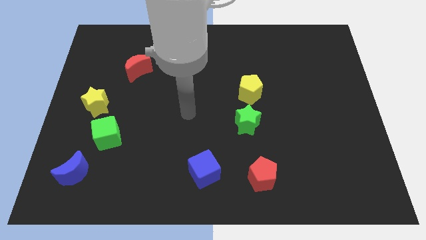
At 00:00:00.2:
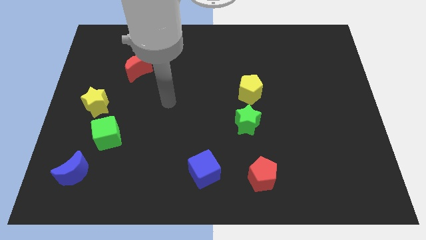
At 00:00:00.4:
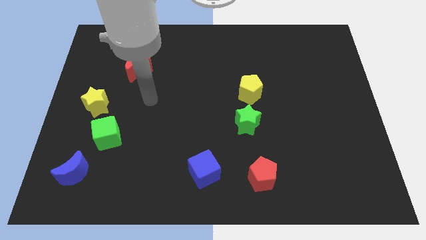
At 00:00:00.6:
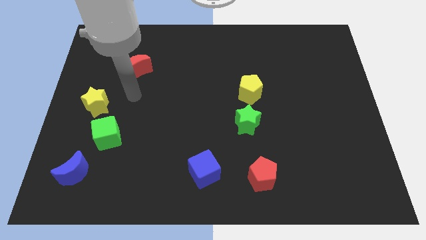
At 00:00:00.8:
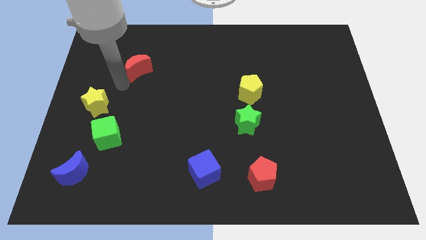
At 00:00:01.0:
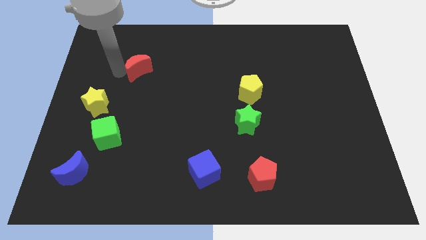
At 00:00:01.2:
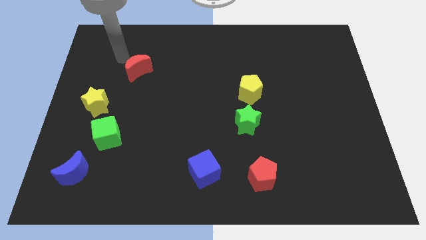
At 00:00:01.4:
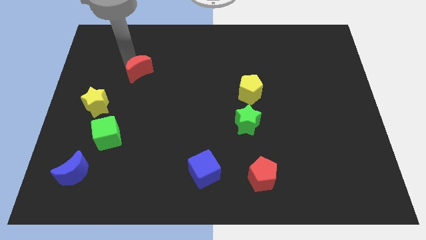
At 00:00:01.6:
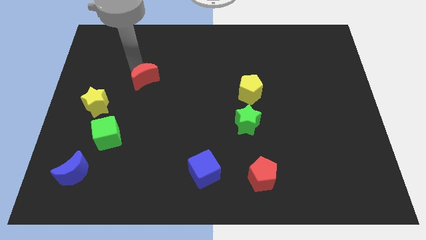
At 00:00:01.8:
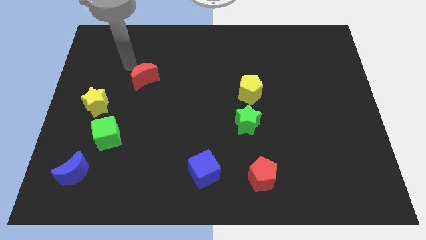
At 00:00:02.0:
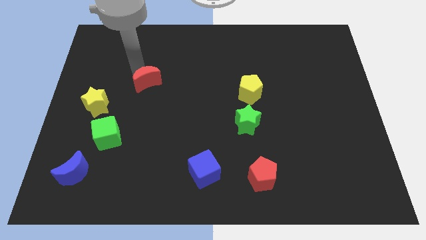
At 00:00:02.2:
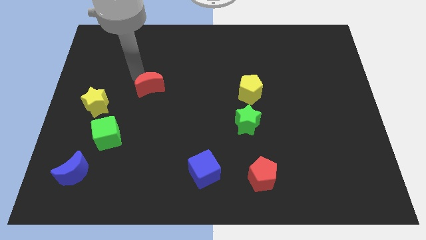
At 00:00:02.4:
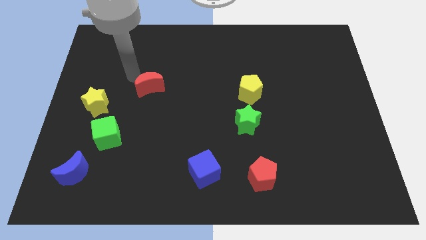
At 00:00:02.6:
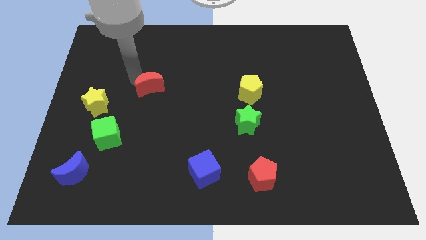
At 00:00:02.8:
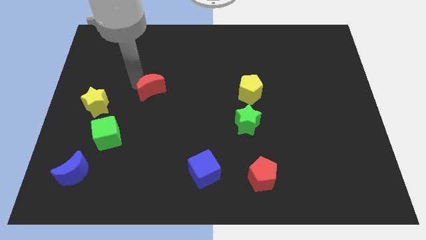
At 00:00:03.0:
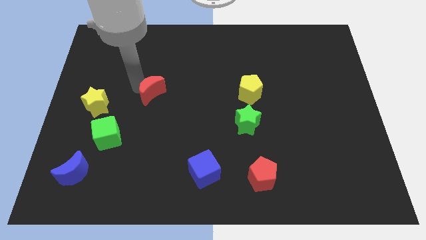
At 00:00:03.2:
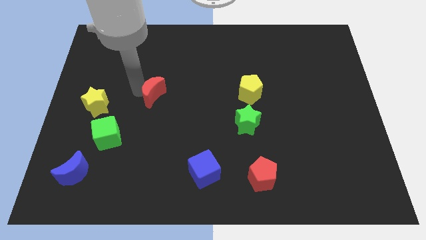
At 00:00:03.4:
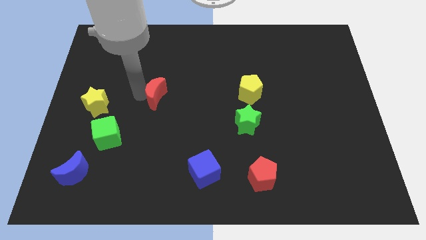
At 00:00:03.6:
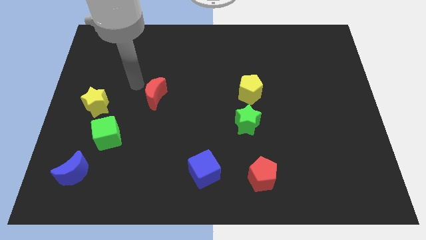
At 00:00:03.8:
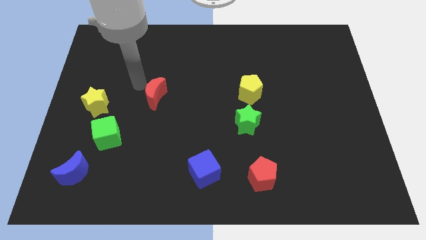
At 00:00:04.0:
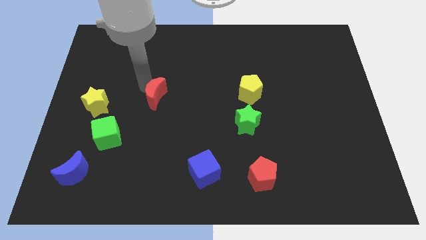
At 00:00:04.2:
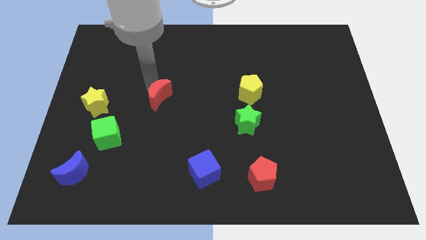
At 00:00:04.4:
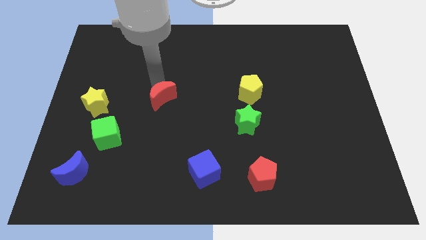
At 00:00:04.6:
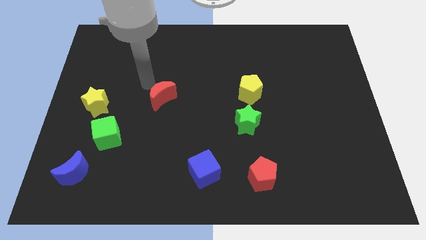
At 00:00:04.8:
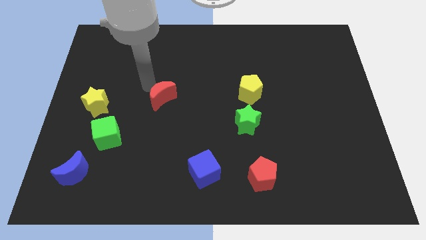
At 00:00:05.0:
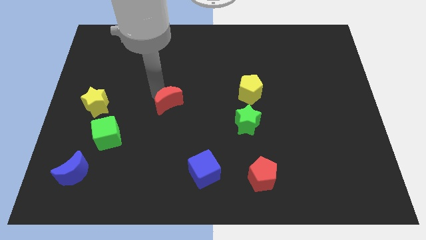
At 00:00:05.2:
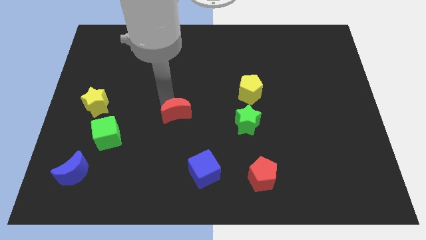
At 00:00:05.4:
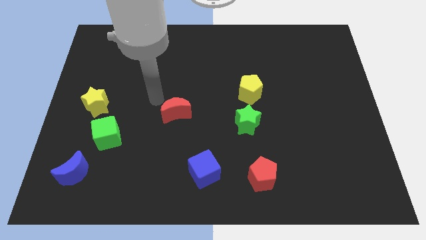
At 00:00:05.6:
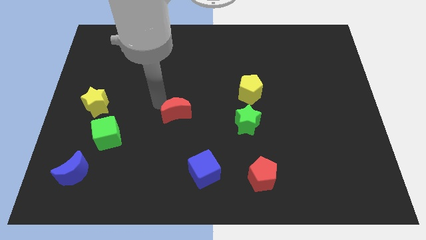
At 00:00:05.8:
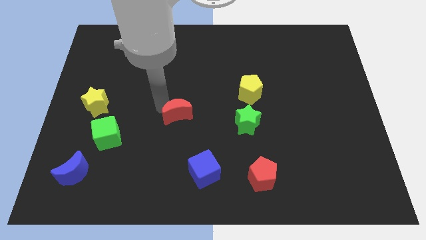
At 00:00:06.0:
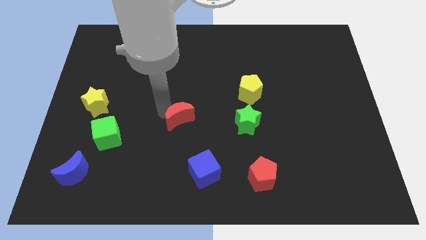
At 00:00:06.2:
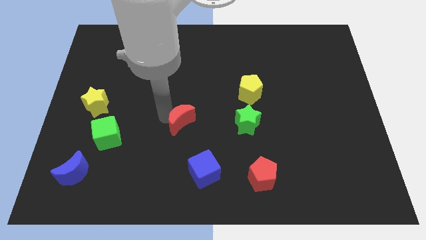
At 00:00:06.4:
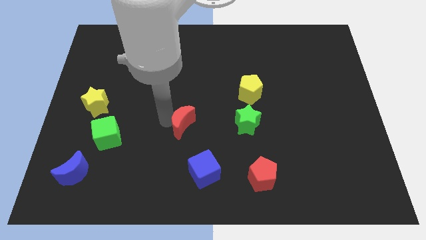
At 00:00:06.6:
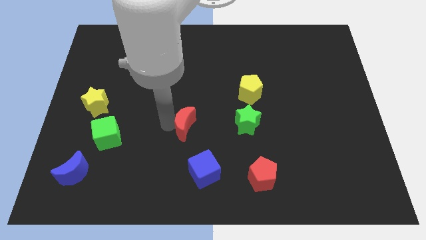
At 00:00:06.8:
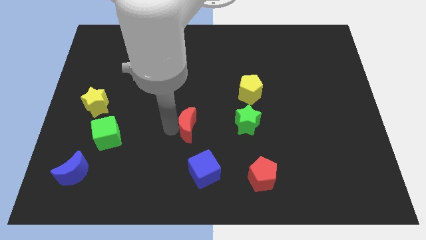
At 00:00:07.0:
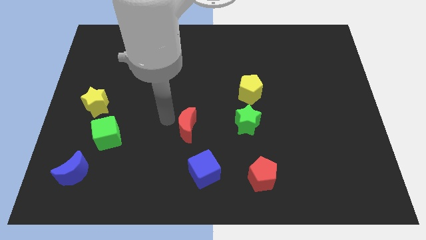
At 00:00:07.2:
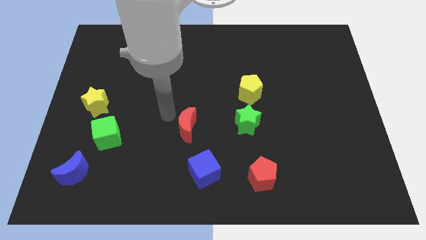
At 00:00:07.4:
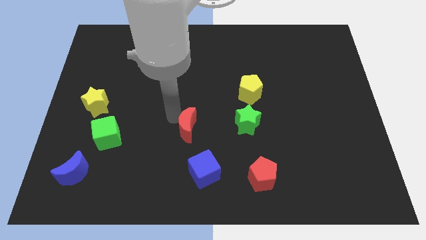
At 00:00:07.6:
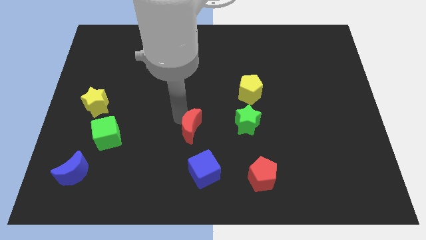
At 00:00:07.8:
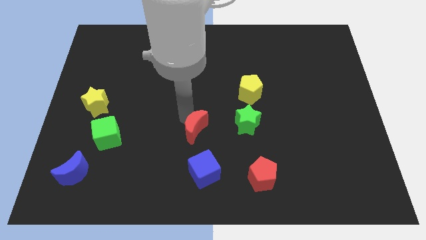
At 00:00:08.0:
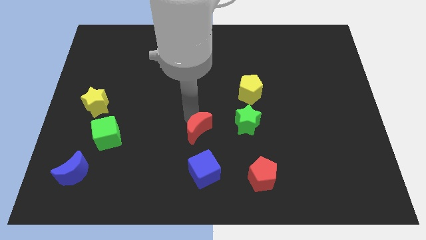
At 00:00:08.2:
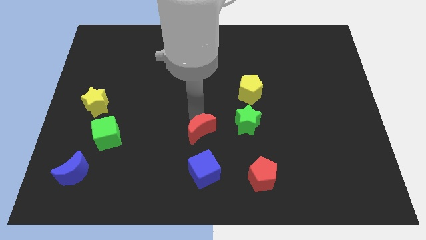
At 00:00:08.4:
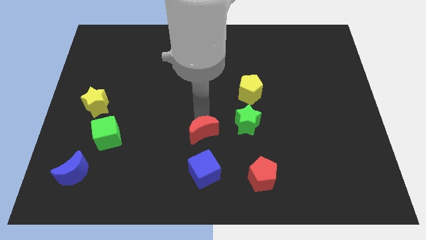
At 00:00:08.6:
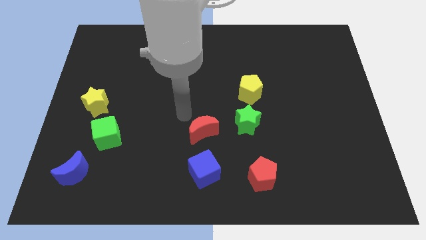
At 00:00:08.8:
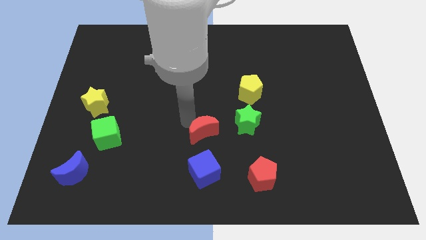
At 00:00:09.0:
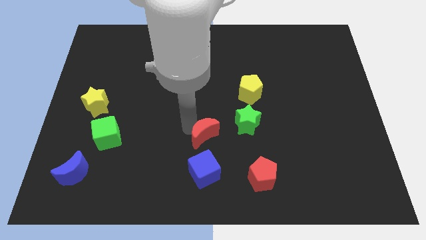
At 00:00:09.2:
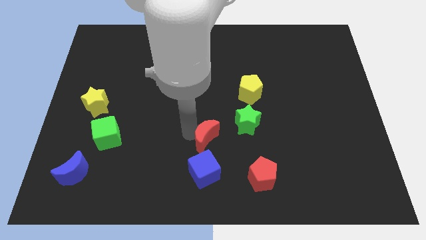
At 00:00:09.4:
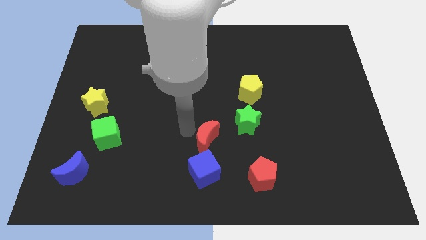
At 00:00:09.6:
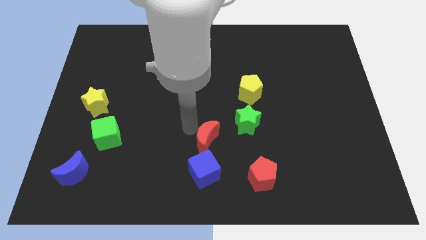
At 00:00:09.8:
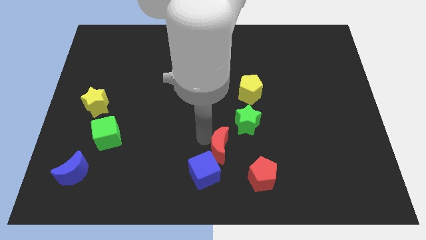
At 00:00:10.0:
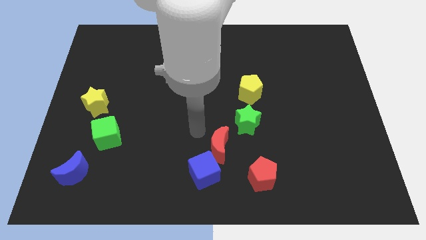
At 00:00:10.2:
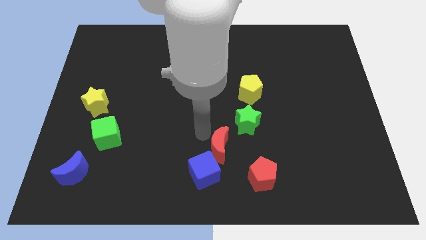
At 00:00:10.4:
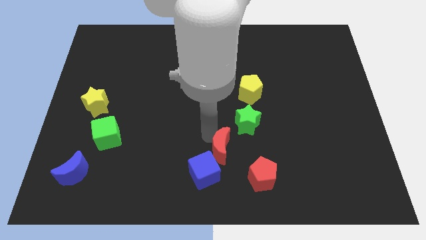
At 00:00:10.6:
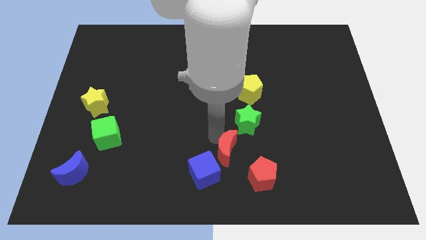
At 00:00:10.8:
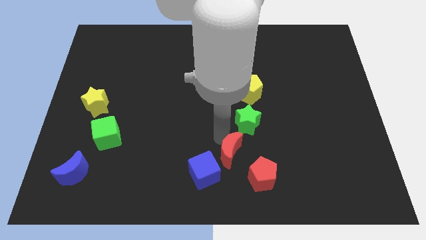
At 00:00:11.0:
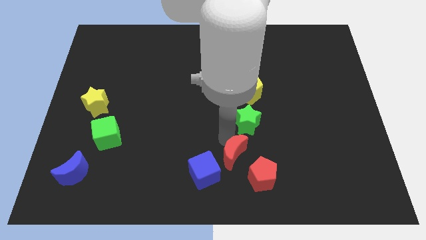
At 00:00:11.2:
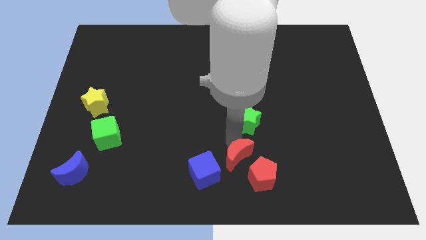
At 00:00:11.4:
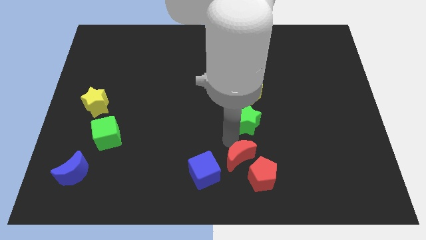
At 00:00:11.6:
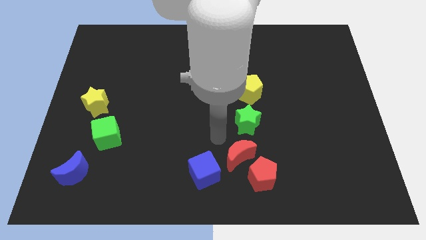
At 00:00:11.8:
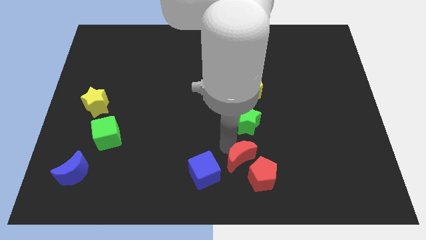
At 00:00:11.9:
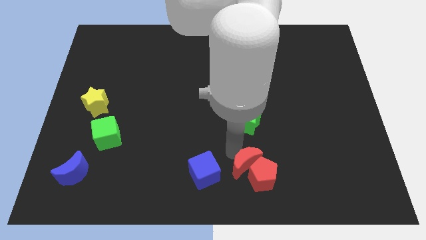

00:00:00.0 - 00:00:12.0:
move the red moon next to the red pentagon

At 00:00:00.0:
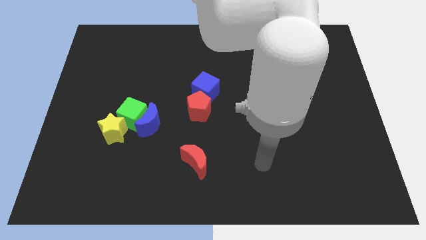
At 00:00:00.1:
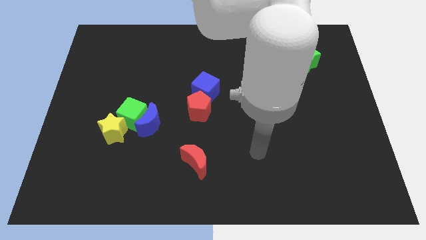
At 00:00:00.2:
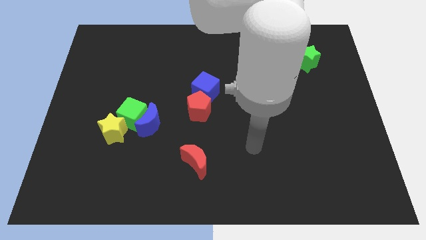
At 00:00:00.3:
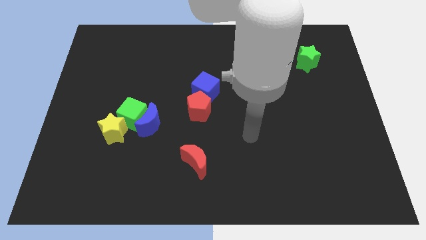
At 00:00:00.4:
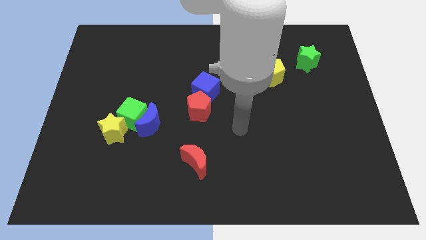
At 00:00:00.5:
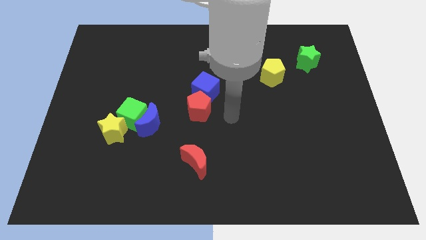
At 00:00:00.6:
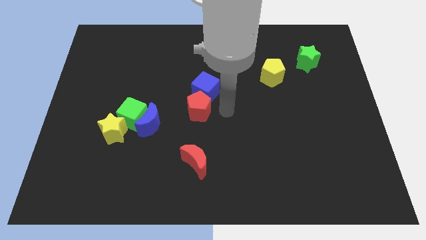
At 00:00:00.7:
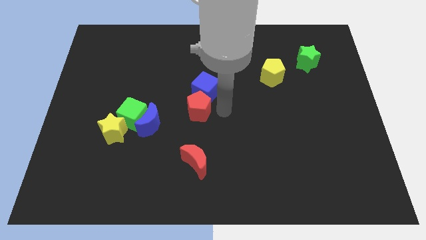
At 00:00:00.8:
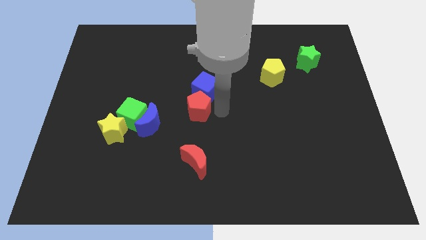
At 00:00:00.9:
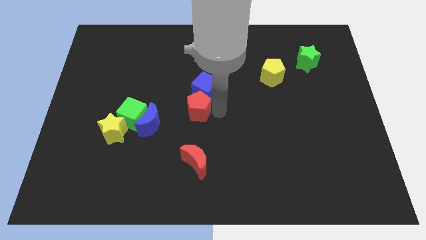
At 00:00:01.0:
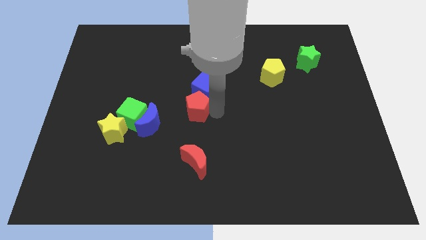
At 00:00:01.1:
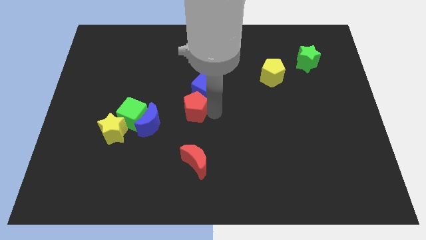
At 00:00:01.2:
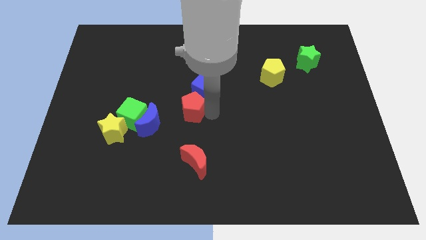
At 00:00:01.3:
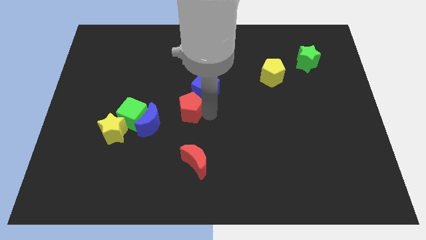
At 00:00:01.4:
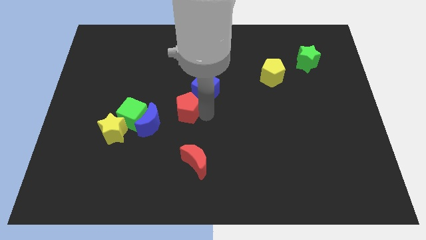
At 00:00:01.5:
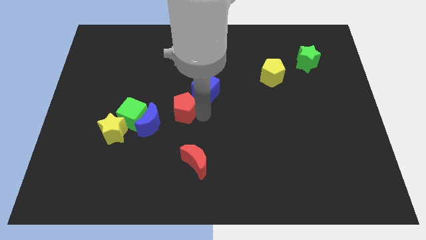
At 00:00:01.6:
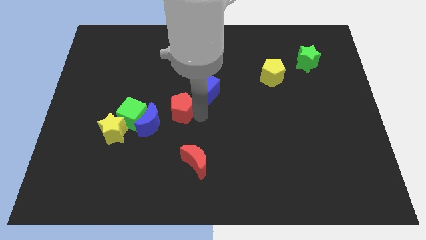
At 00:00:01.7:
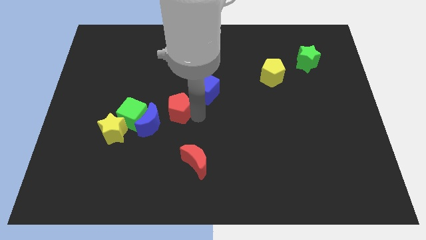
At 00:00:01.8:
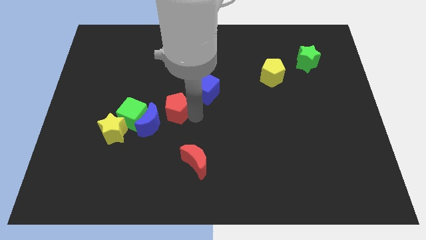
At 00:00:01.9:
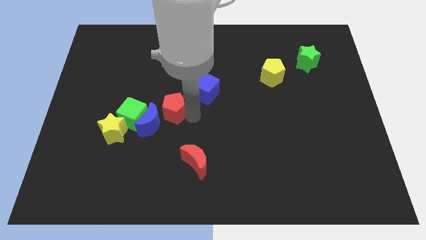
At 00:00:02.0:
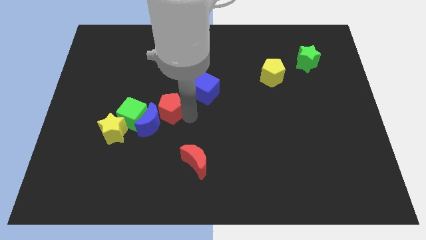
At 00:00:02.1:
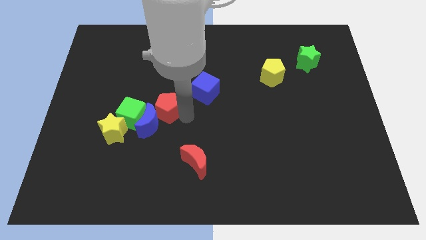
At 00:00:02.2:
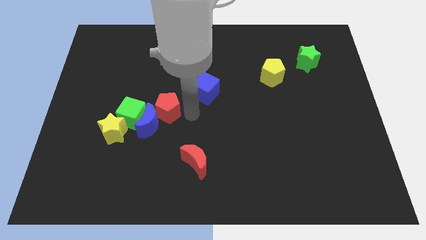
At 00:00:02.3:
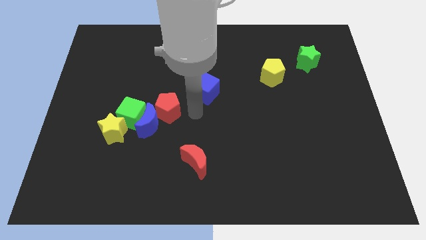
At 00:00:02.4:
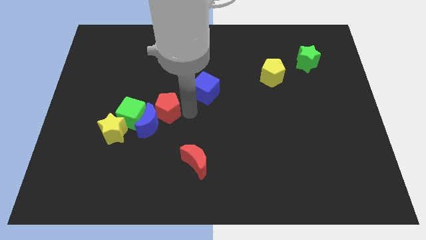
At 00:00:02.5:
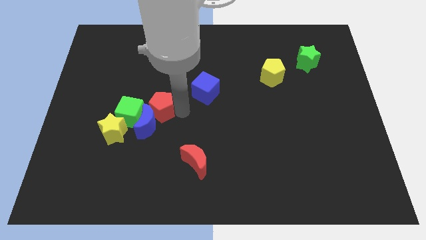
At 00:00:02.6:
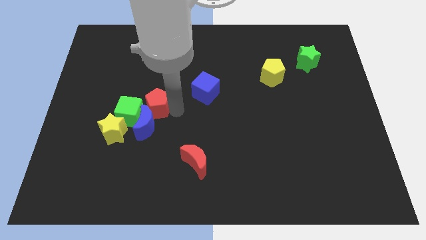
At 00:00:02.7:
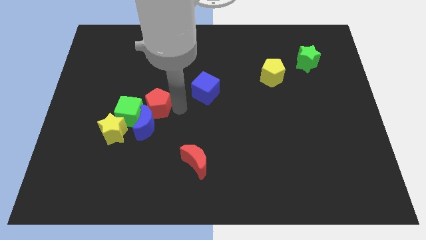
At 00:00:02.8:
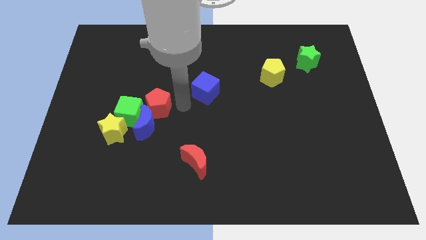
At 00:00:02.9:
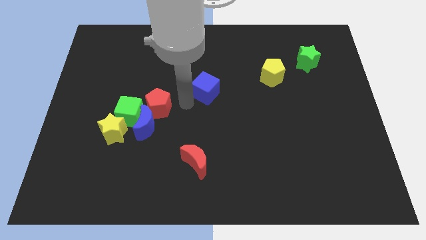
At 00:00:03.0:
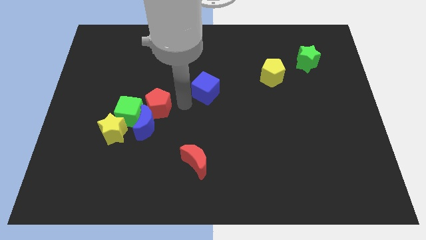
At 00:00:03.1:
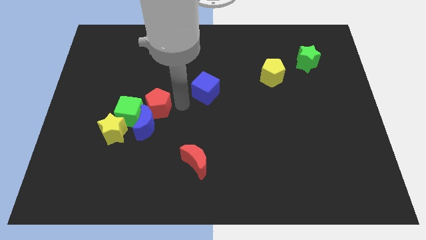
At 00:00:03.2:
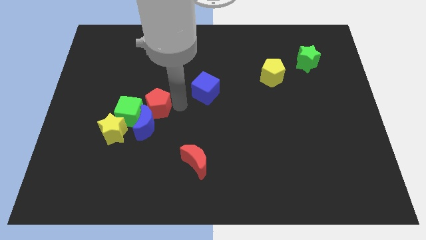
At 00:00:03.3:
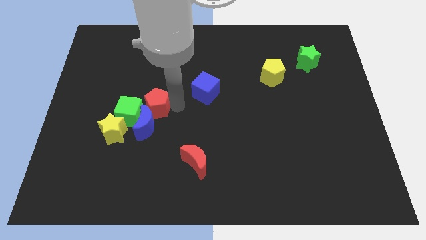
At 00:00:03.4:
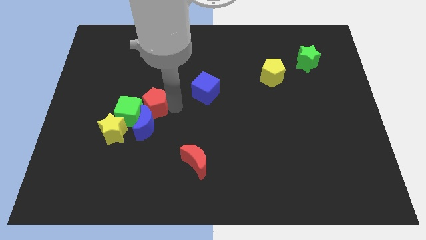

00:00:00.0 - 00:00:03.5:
put the red pentagon next to the green cube
